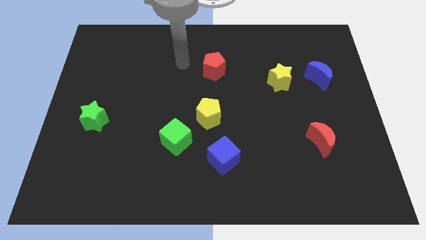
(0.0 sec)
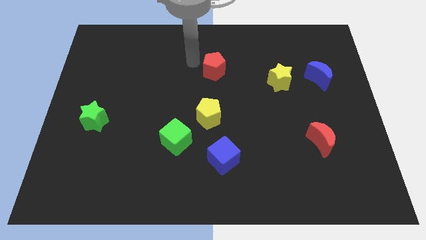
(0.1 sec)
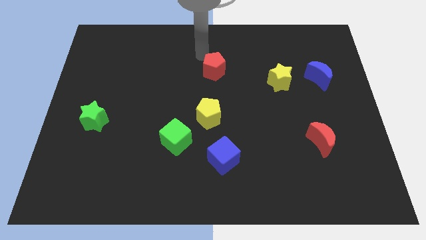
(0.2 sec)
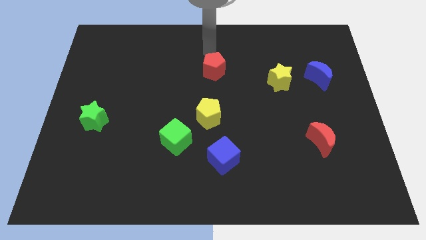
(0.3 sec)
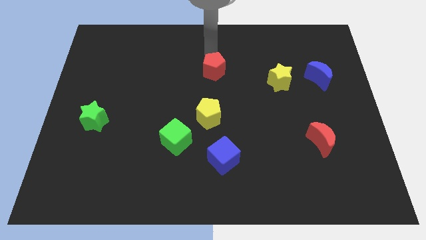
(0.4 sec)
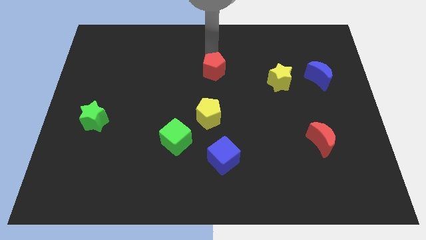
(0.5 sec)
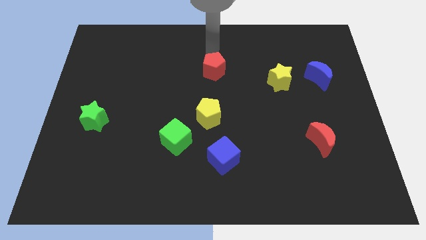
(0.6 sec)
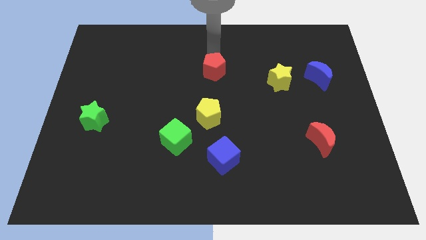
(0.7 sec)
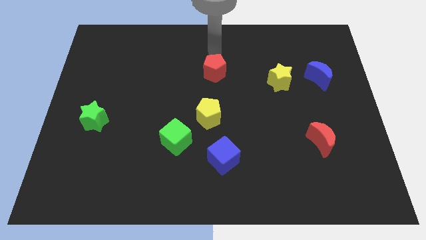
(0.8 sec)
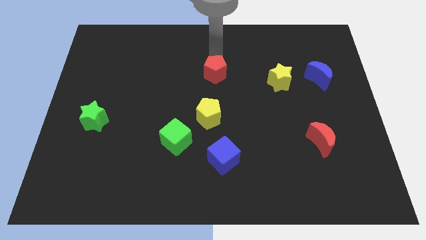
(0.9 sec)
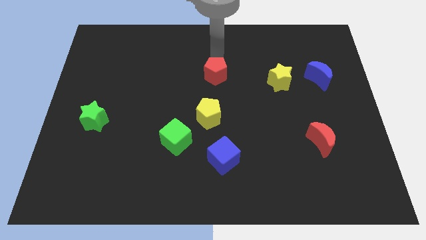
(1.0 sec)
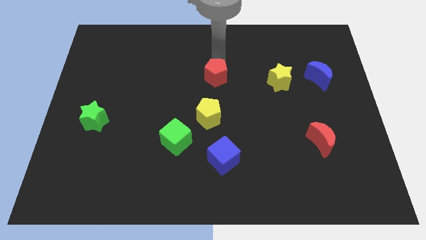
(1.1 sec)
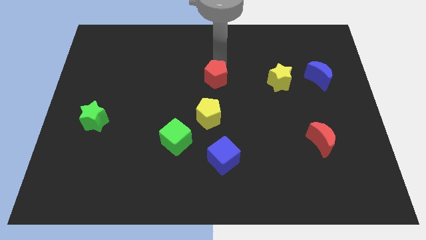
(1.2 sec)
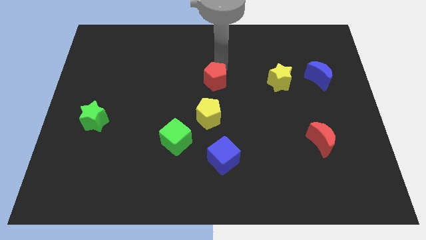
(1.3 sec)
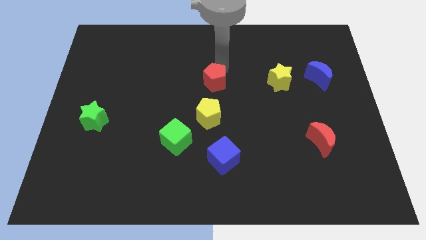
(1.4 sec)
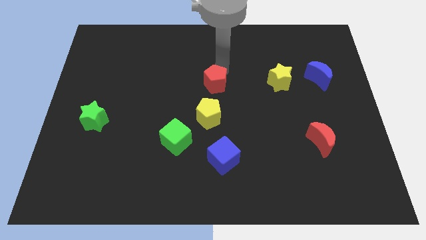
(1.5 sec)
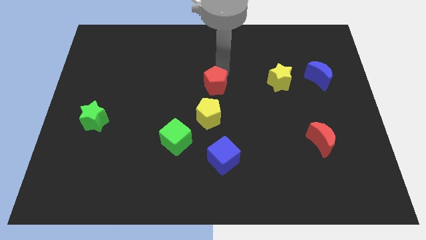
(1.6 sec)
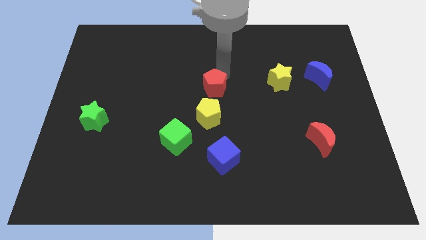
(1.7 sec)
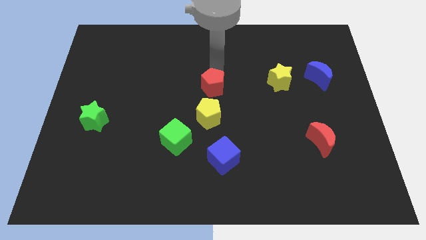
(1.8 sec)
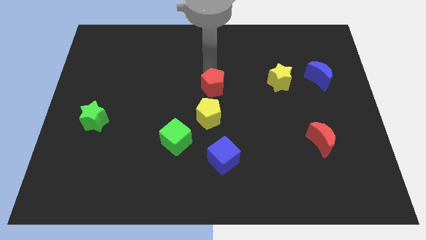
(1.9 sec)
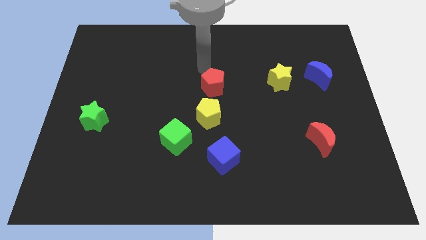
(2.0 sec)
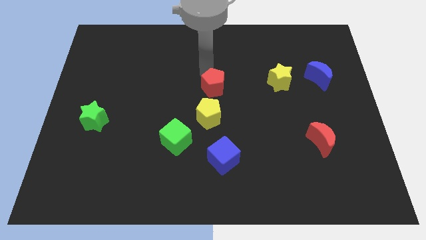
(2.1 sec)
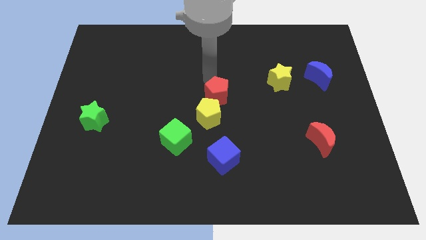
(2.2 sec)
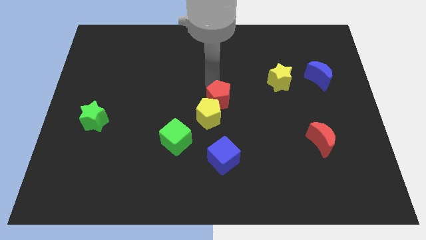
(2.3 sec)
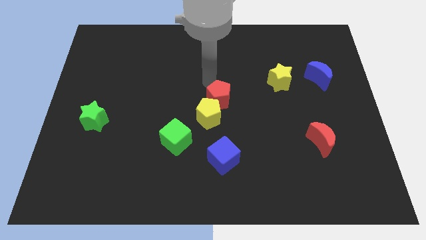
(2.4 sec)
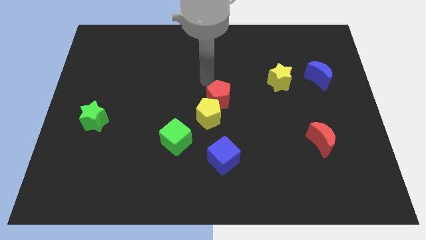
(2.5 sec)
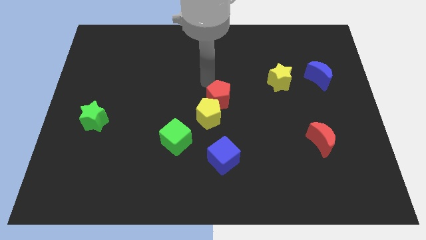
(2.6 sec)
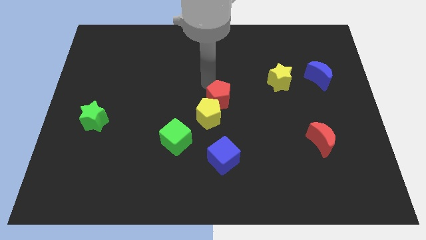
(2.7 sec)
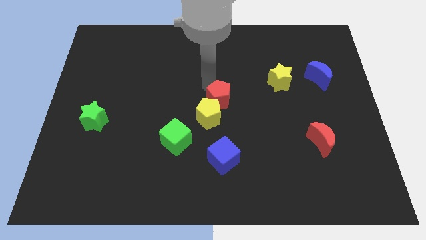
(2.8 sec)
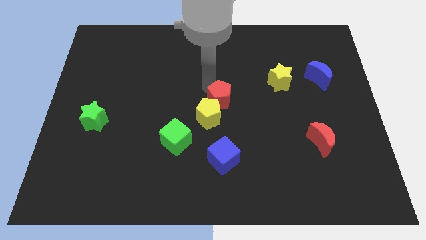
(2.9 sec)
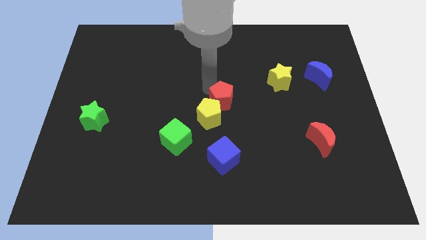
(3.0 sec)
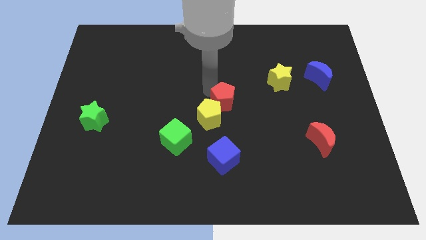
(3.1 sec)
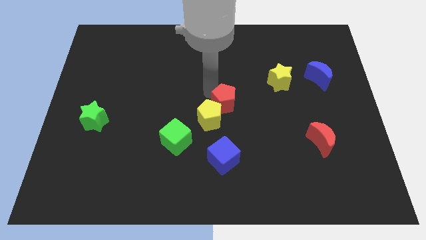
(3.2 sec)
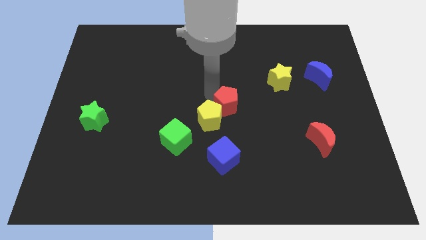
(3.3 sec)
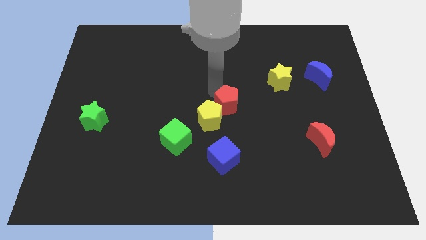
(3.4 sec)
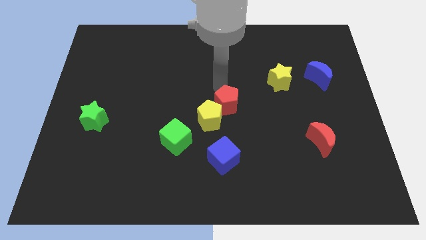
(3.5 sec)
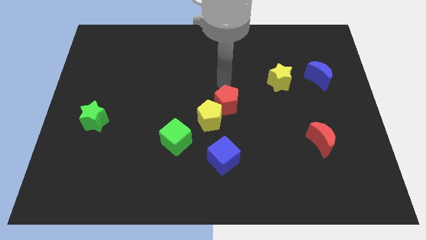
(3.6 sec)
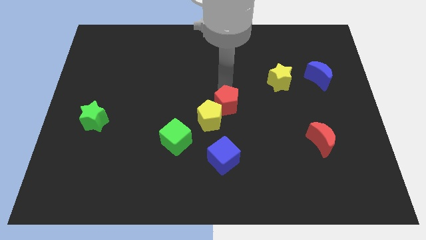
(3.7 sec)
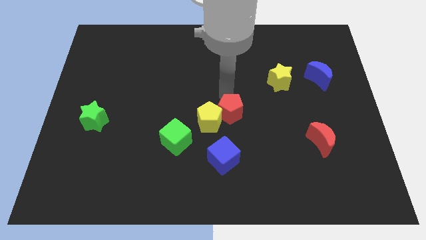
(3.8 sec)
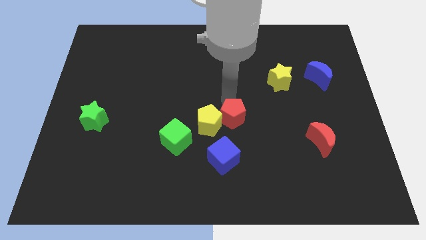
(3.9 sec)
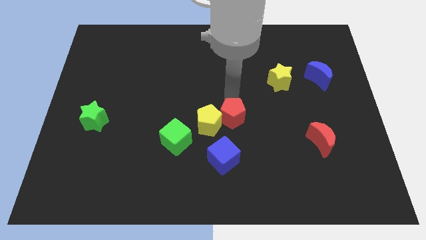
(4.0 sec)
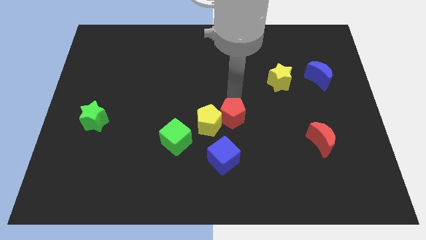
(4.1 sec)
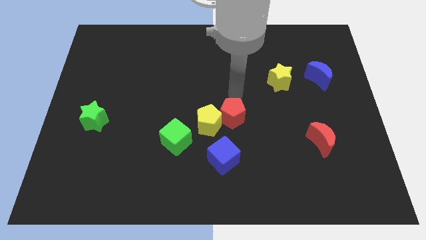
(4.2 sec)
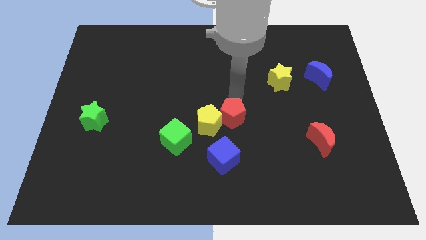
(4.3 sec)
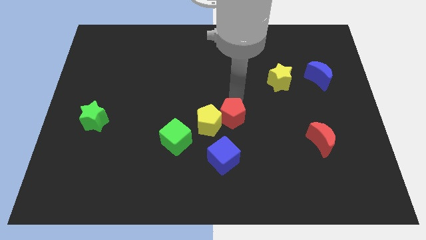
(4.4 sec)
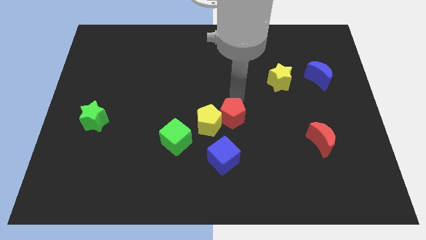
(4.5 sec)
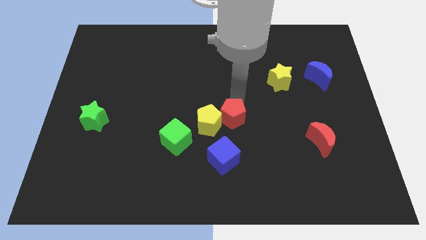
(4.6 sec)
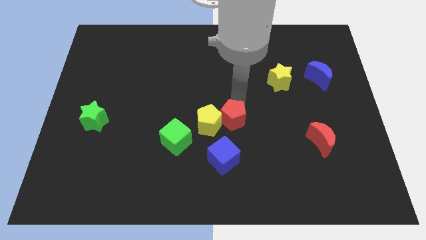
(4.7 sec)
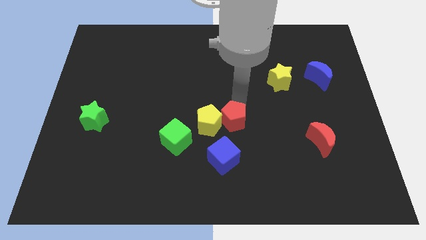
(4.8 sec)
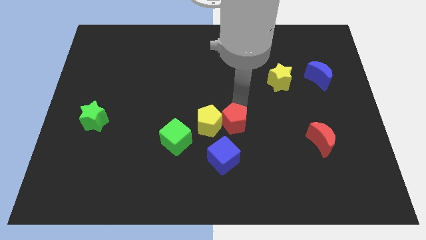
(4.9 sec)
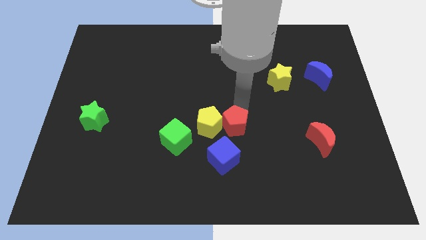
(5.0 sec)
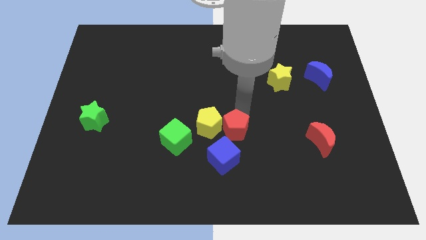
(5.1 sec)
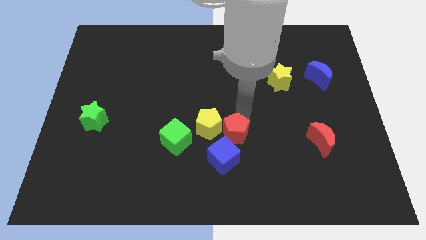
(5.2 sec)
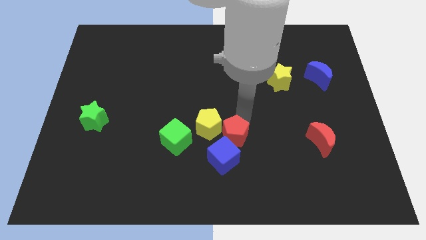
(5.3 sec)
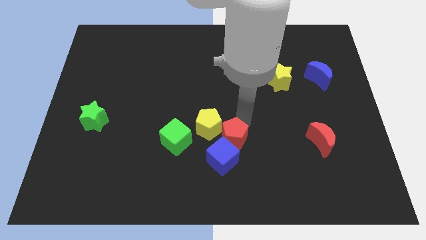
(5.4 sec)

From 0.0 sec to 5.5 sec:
move the red pentagon next to the blue cube

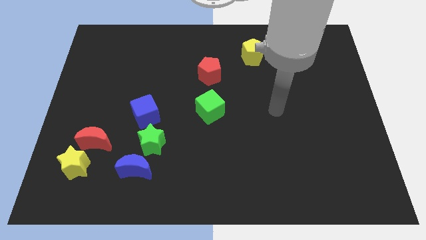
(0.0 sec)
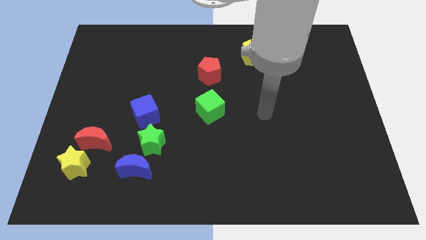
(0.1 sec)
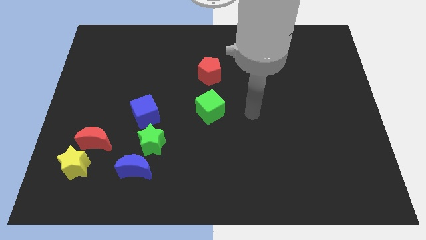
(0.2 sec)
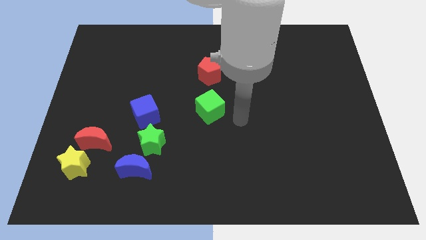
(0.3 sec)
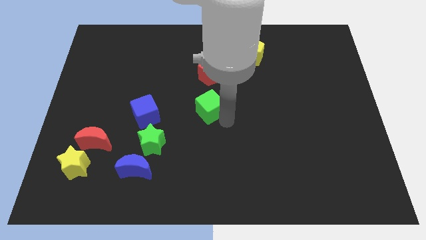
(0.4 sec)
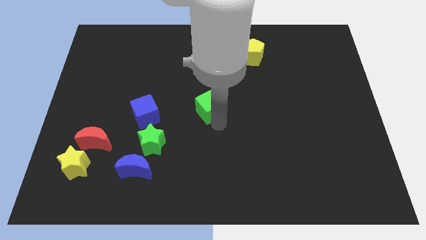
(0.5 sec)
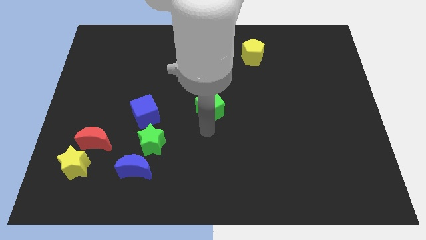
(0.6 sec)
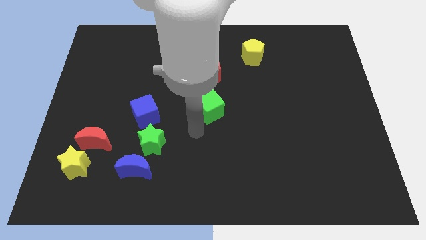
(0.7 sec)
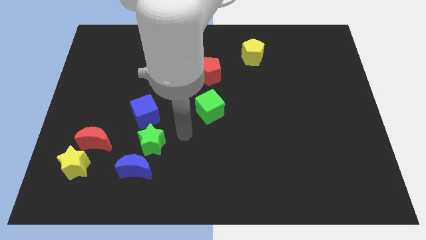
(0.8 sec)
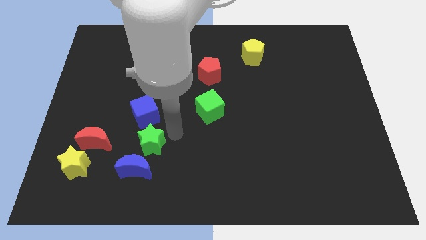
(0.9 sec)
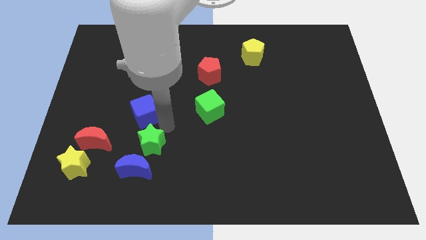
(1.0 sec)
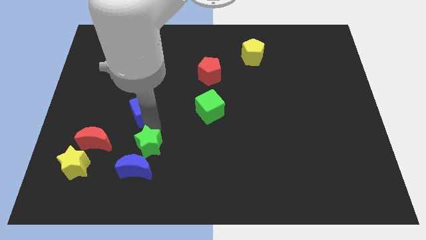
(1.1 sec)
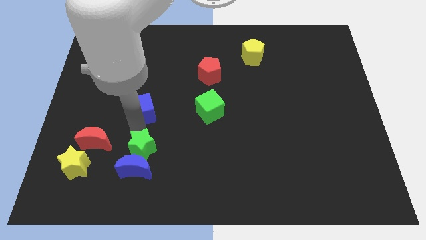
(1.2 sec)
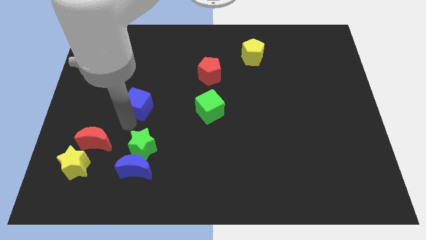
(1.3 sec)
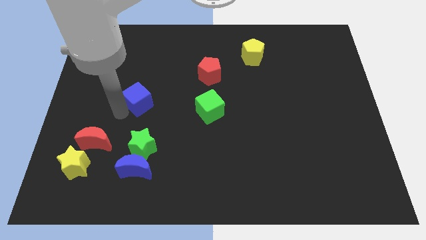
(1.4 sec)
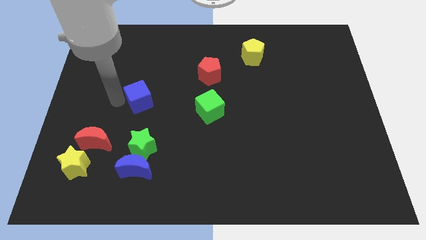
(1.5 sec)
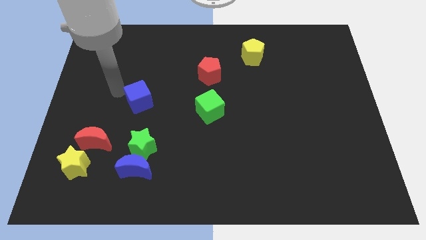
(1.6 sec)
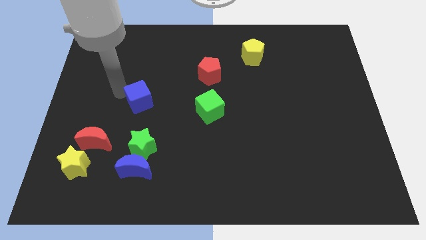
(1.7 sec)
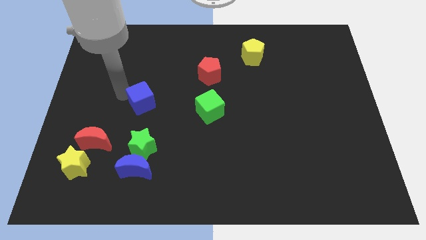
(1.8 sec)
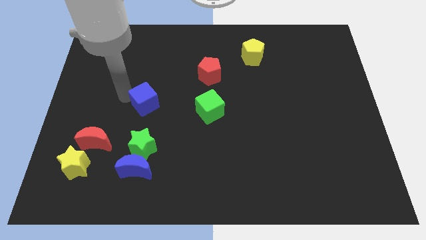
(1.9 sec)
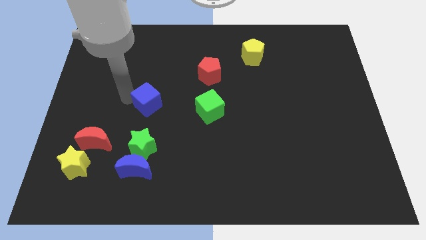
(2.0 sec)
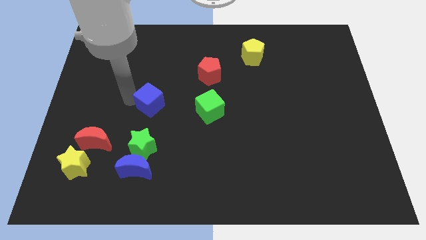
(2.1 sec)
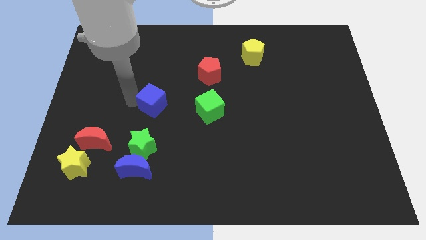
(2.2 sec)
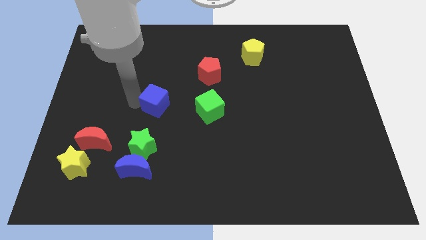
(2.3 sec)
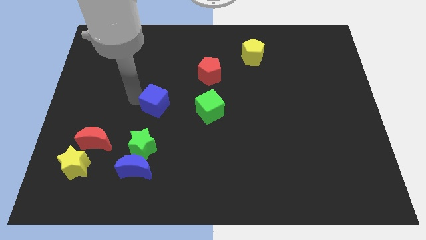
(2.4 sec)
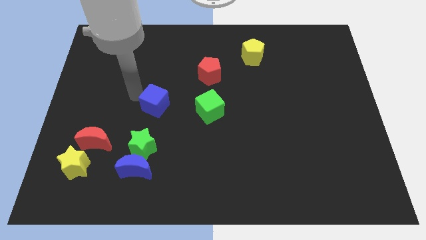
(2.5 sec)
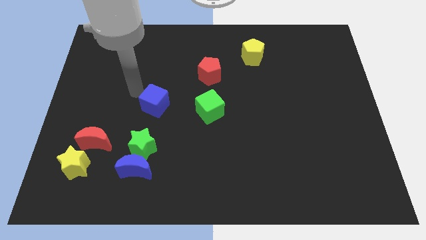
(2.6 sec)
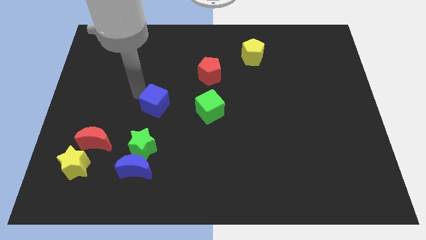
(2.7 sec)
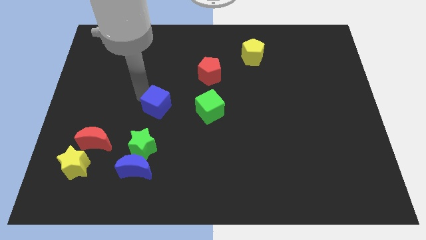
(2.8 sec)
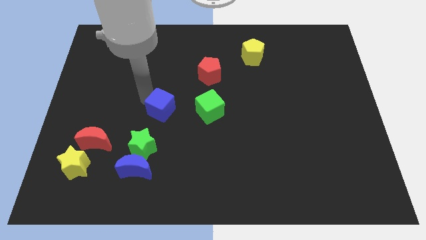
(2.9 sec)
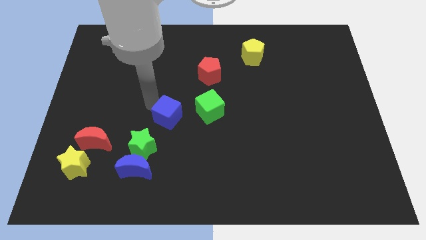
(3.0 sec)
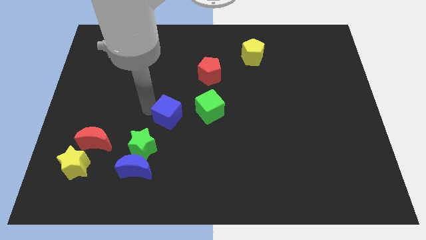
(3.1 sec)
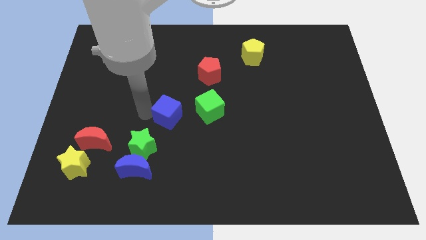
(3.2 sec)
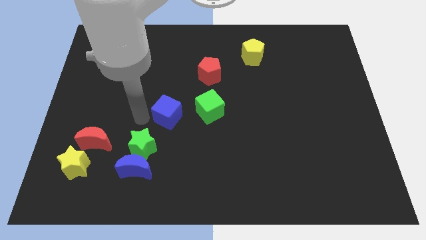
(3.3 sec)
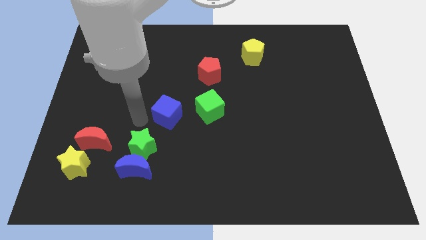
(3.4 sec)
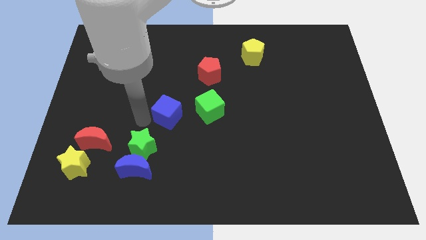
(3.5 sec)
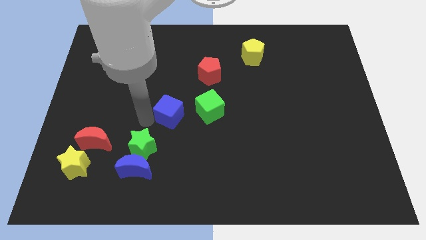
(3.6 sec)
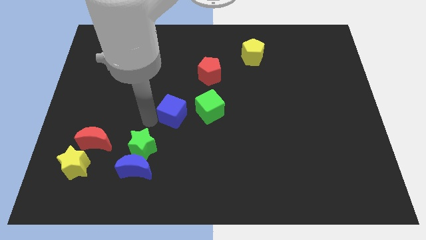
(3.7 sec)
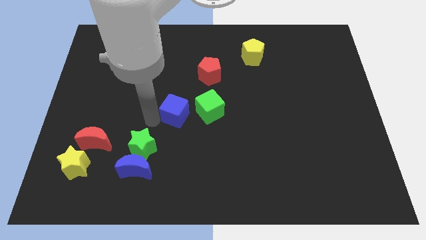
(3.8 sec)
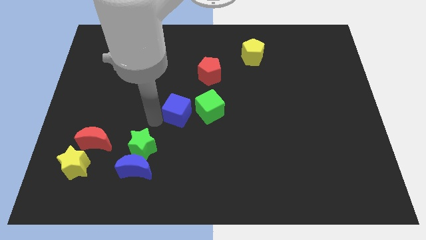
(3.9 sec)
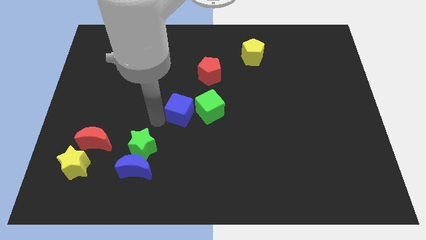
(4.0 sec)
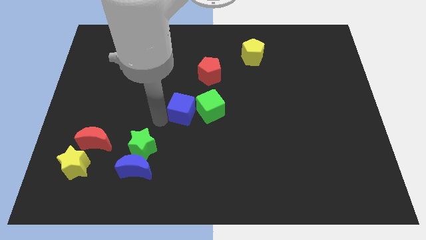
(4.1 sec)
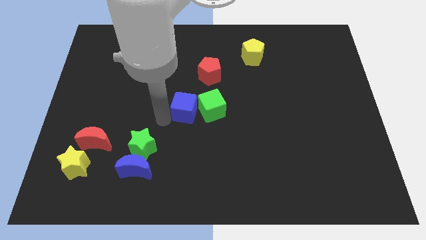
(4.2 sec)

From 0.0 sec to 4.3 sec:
put the blue cube close to the green cube
